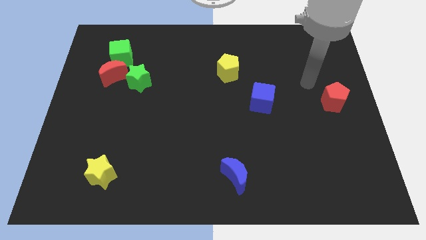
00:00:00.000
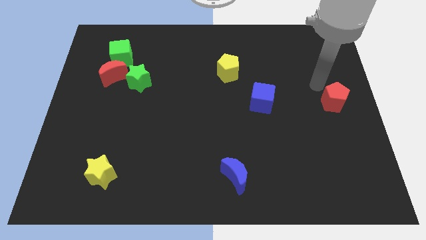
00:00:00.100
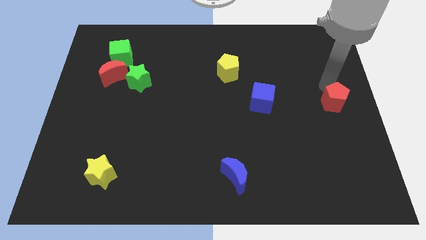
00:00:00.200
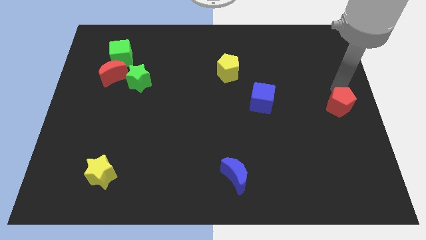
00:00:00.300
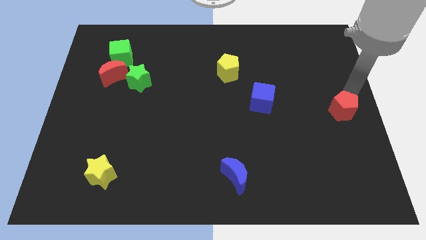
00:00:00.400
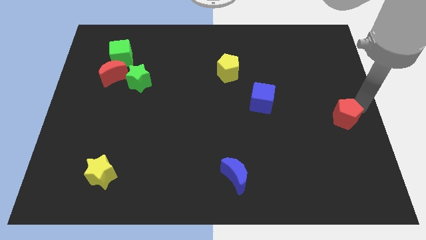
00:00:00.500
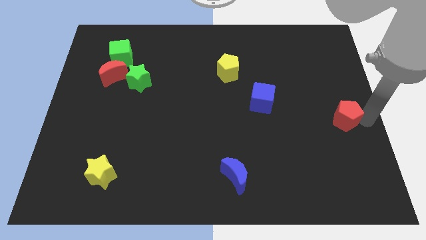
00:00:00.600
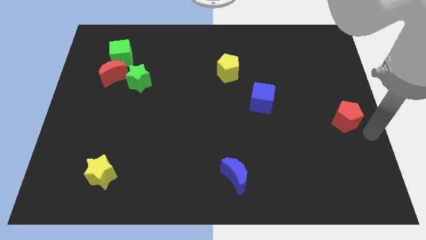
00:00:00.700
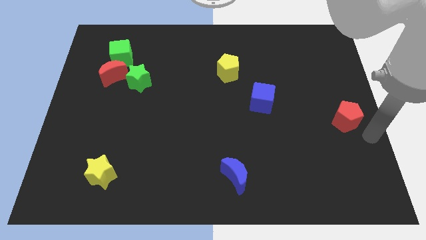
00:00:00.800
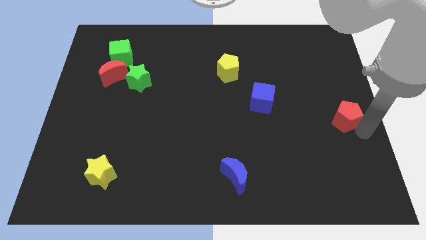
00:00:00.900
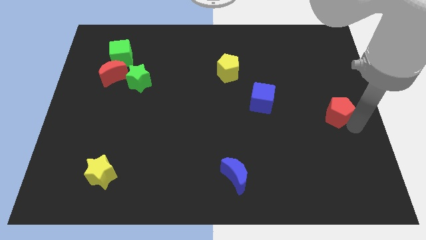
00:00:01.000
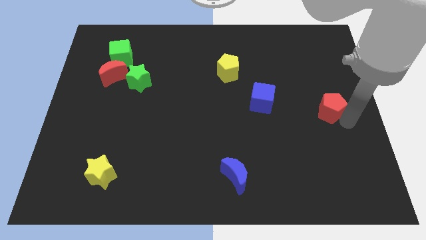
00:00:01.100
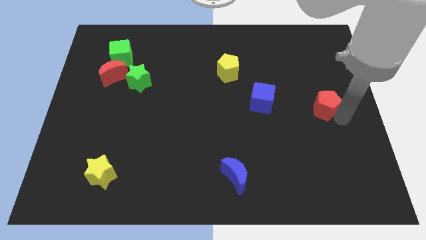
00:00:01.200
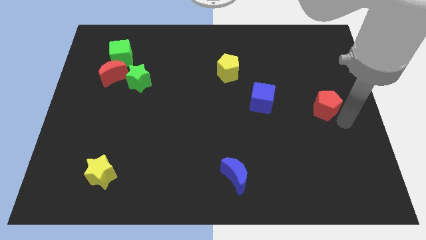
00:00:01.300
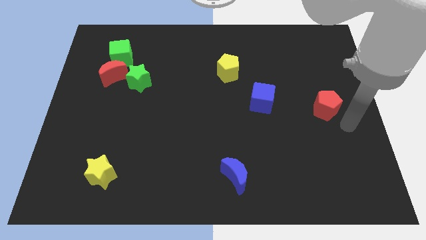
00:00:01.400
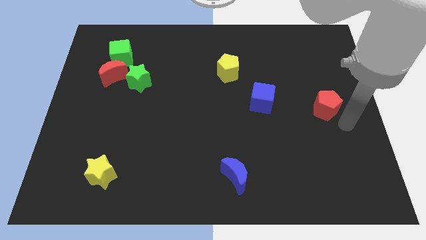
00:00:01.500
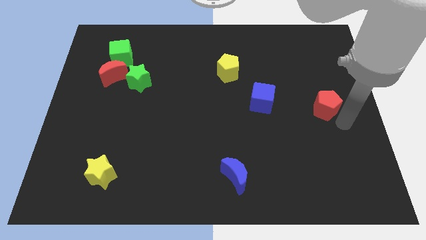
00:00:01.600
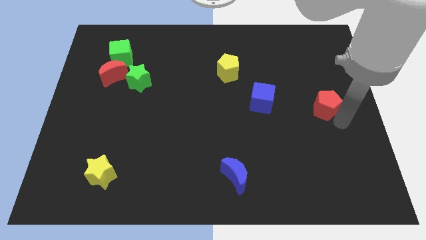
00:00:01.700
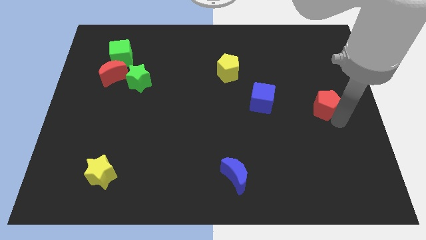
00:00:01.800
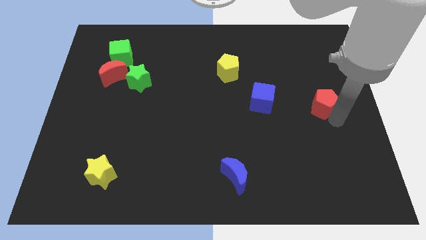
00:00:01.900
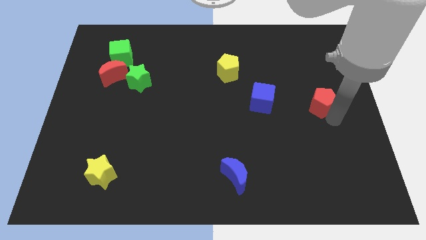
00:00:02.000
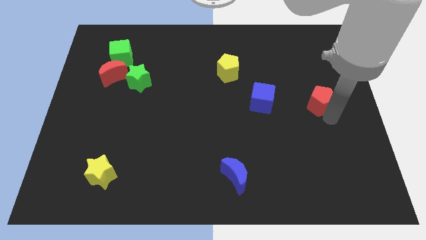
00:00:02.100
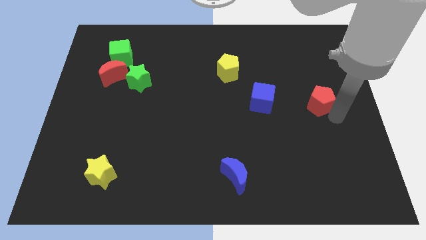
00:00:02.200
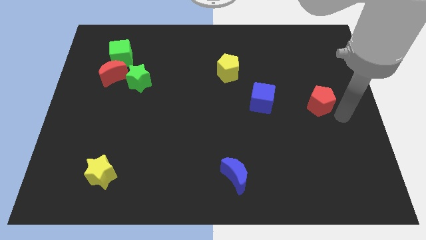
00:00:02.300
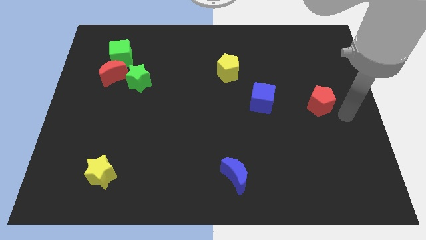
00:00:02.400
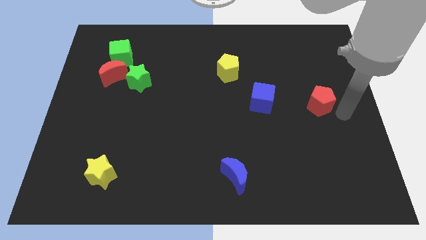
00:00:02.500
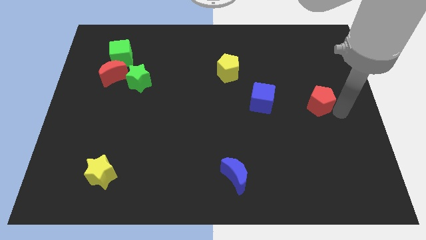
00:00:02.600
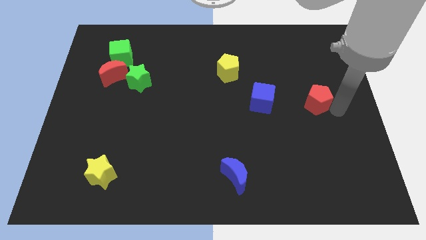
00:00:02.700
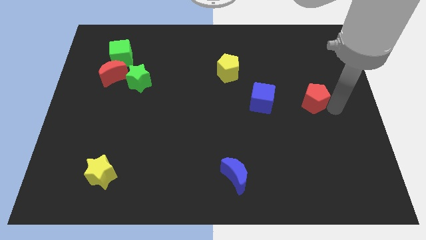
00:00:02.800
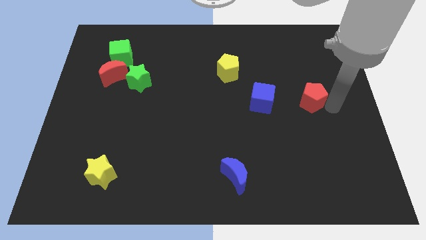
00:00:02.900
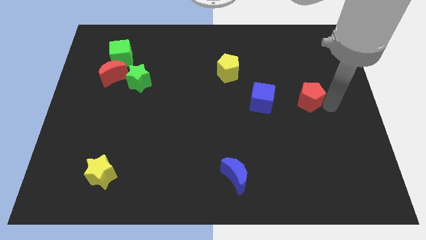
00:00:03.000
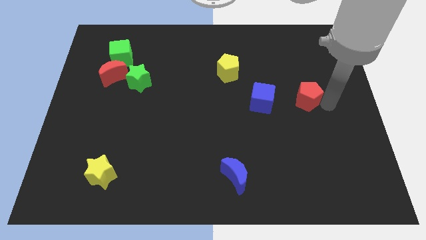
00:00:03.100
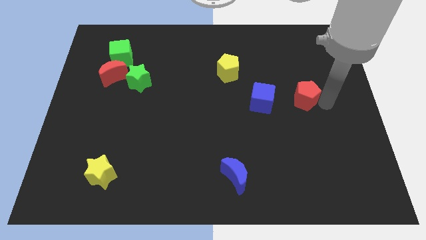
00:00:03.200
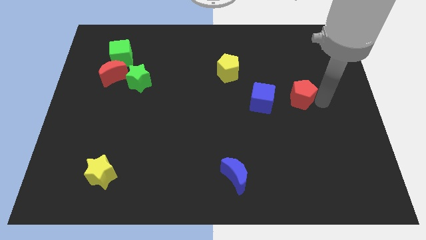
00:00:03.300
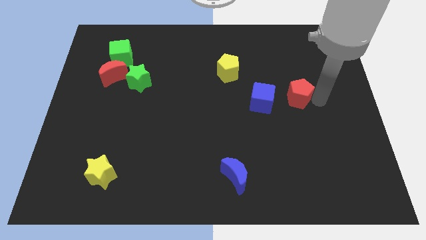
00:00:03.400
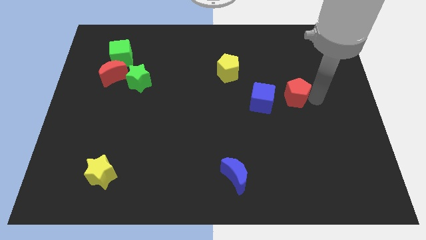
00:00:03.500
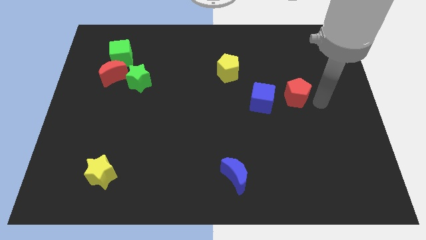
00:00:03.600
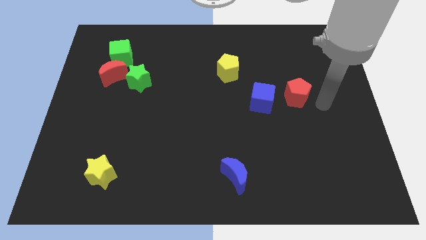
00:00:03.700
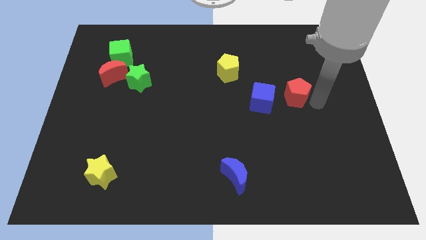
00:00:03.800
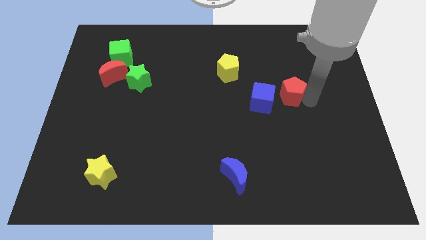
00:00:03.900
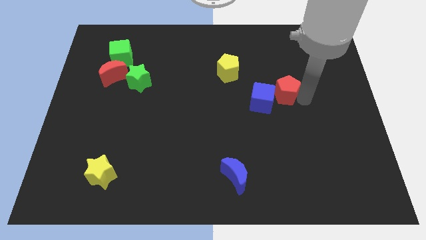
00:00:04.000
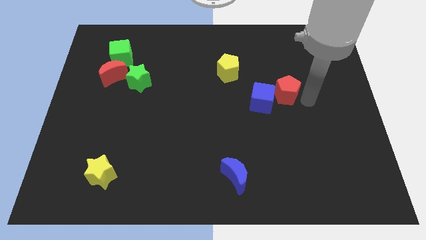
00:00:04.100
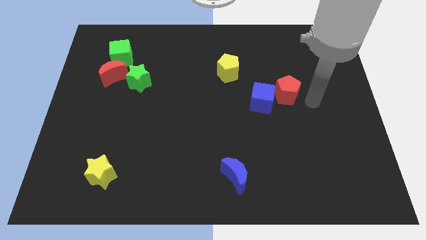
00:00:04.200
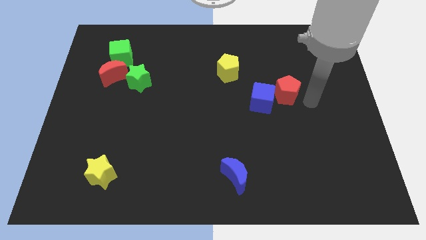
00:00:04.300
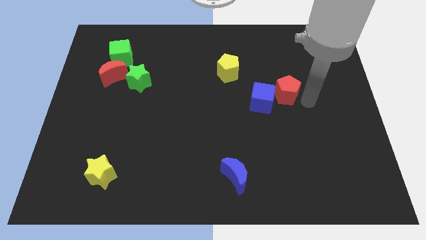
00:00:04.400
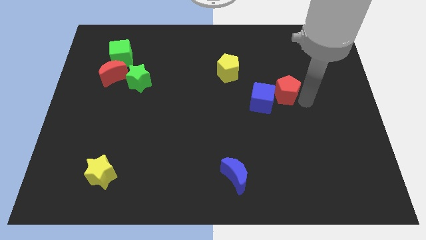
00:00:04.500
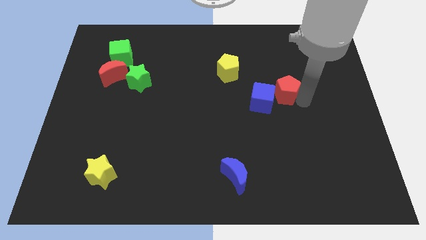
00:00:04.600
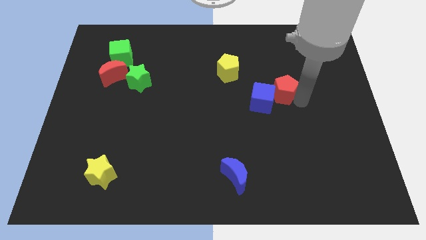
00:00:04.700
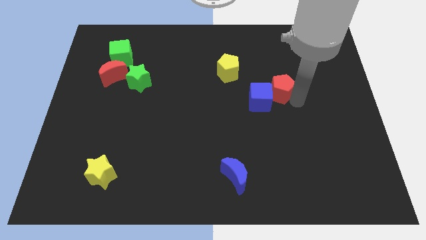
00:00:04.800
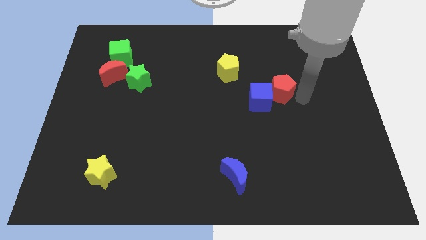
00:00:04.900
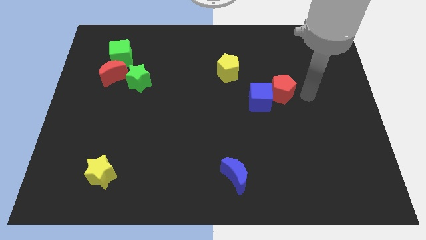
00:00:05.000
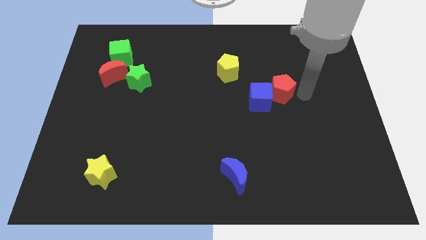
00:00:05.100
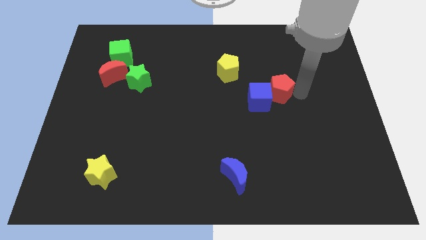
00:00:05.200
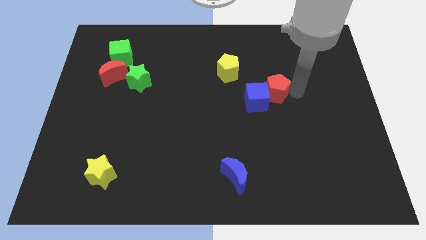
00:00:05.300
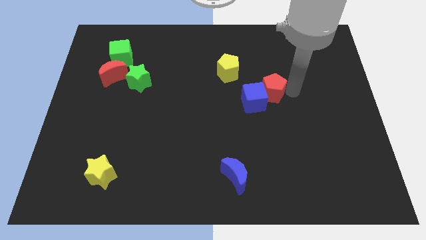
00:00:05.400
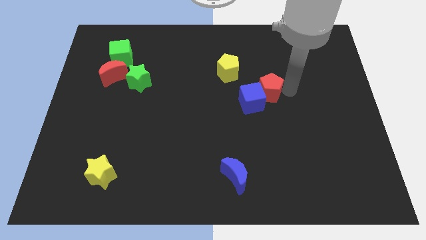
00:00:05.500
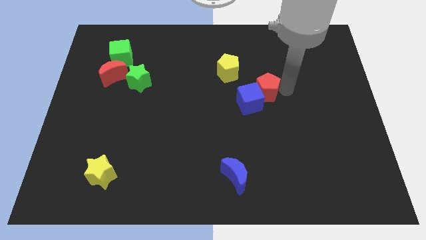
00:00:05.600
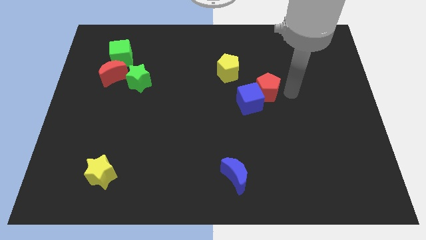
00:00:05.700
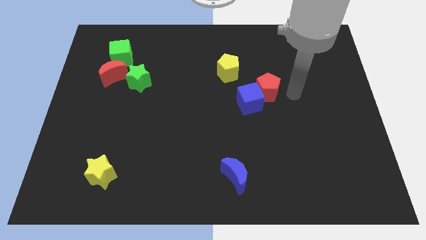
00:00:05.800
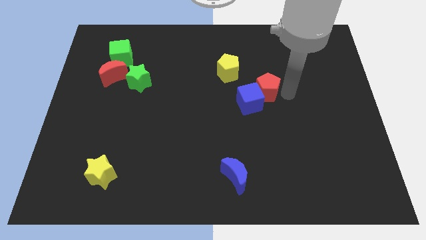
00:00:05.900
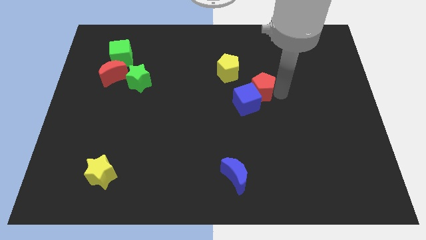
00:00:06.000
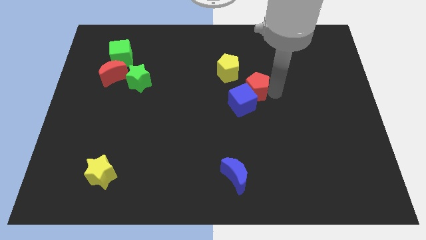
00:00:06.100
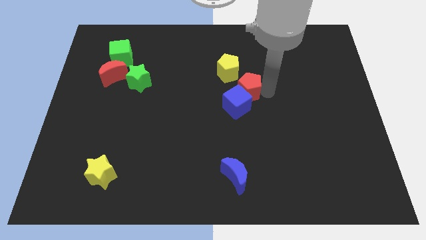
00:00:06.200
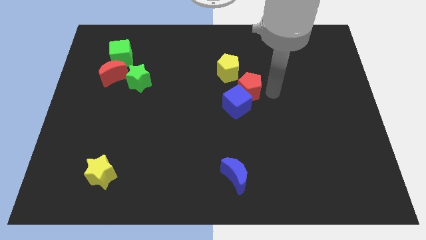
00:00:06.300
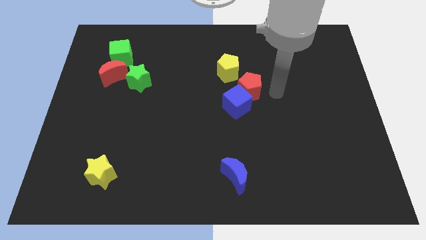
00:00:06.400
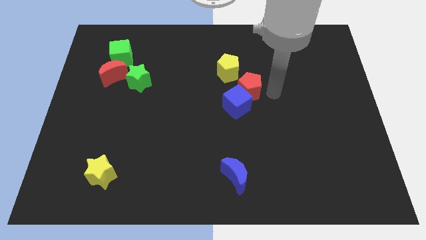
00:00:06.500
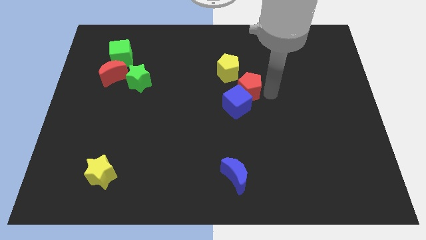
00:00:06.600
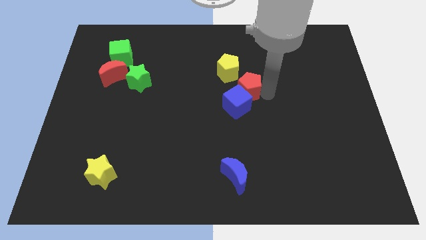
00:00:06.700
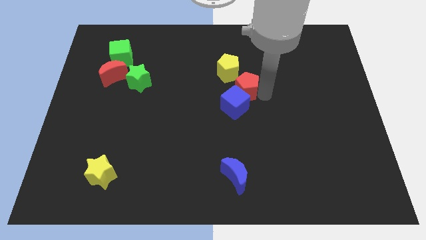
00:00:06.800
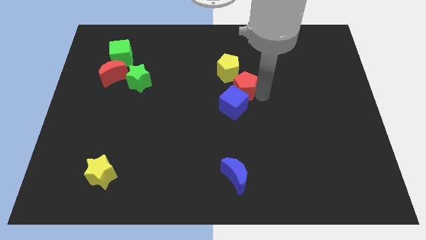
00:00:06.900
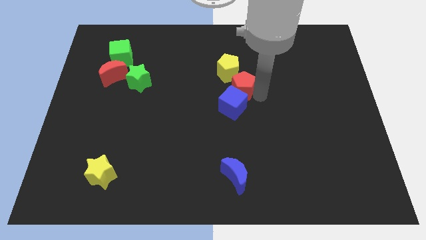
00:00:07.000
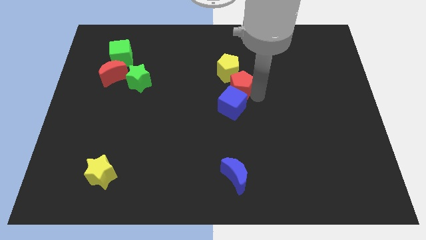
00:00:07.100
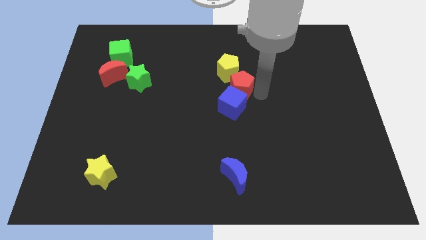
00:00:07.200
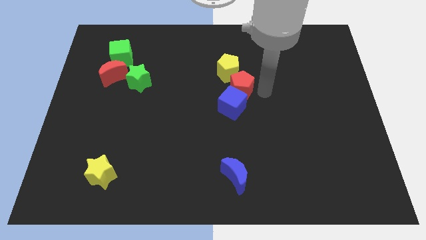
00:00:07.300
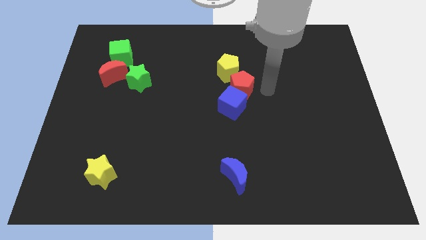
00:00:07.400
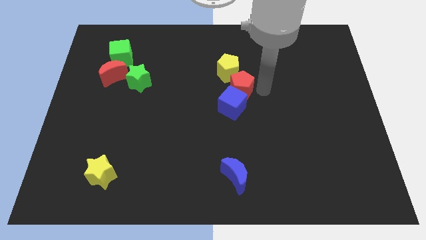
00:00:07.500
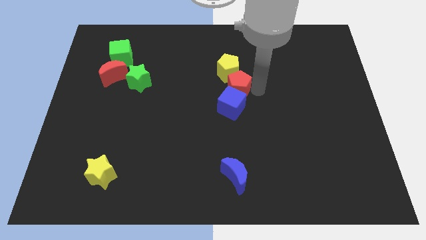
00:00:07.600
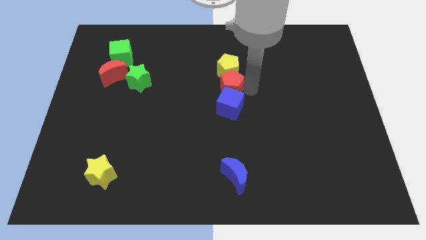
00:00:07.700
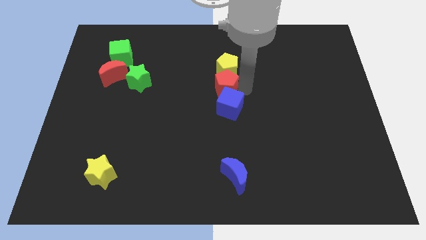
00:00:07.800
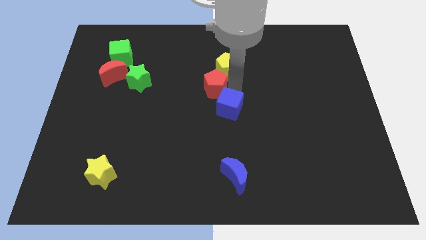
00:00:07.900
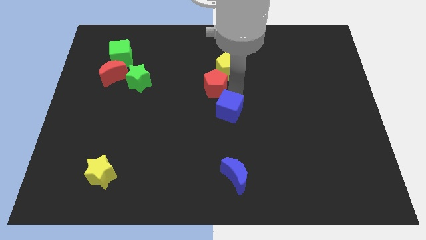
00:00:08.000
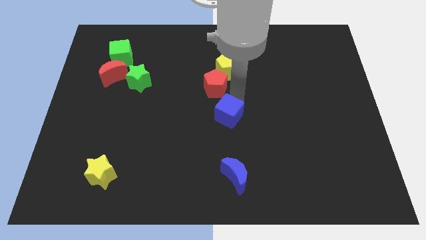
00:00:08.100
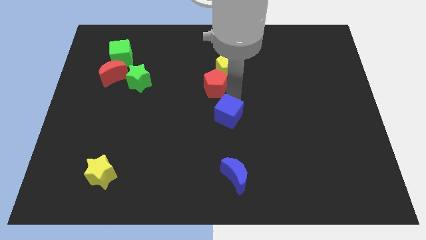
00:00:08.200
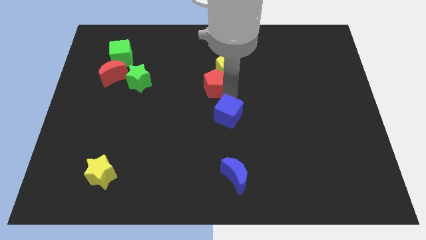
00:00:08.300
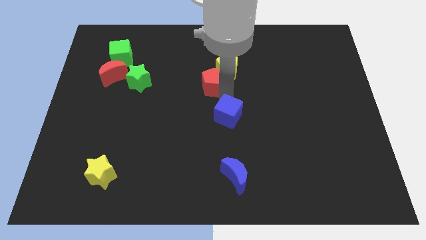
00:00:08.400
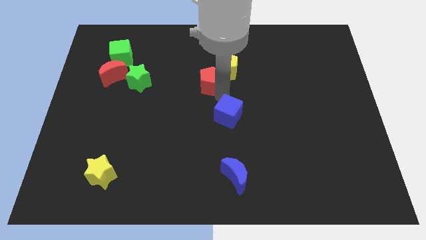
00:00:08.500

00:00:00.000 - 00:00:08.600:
put the red pentagon to the left of the yellow pentagon
